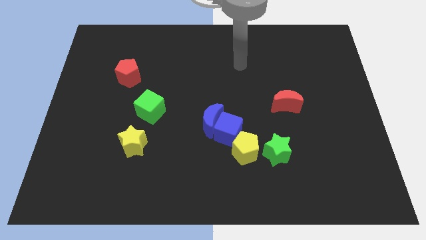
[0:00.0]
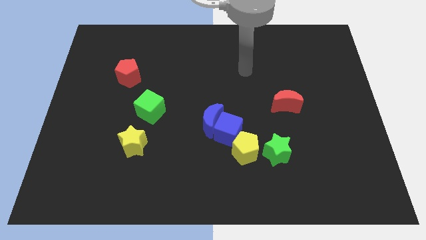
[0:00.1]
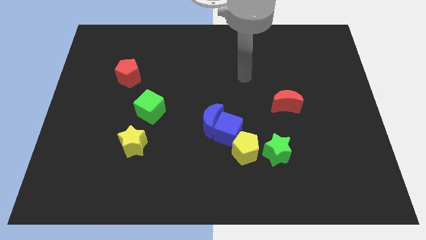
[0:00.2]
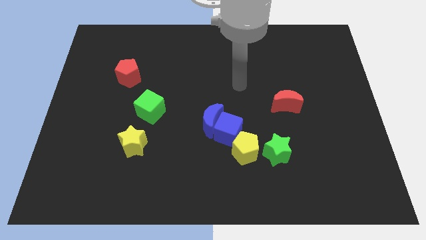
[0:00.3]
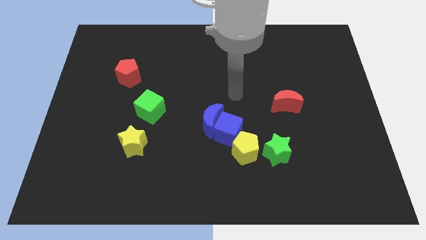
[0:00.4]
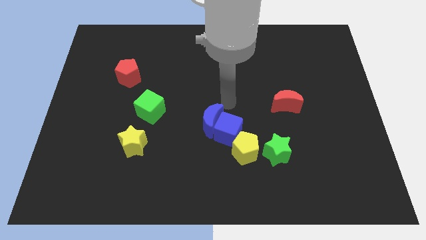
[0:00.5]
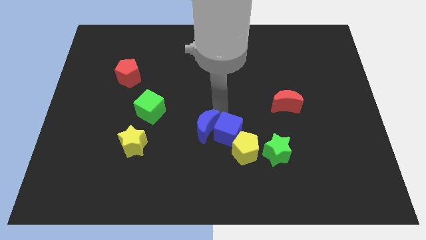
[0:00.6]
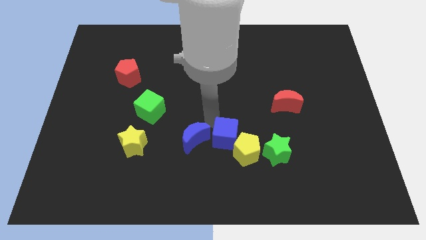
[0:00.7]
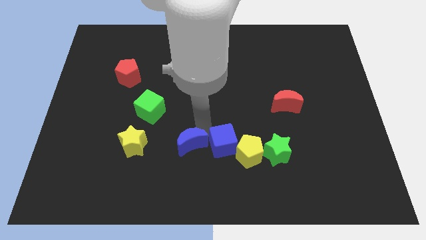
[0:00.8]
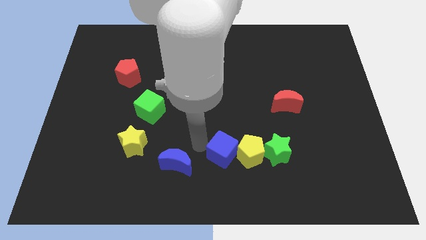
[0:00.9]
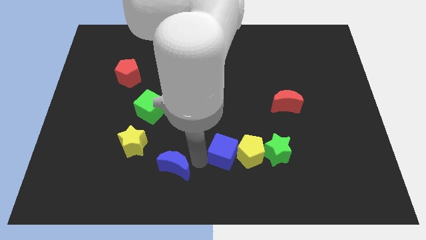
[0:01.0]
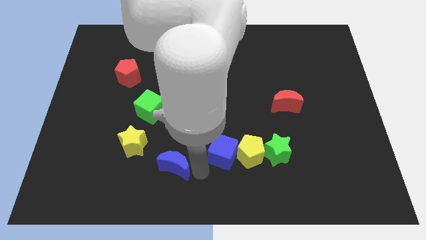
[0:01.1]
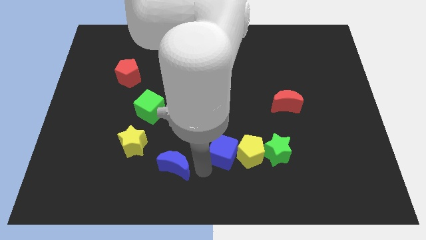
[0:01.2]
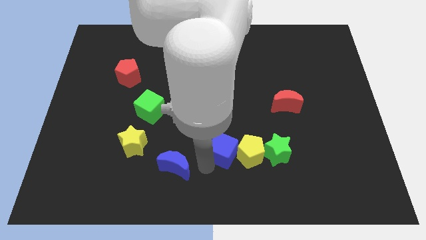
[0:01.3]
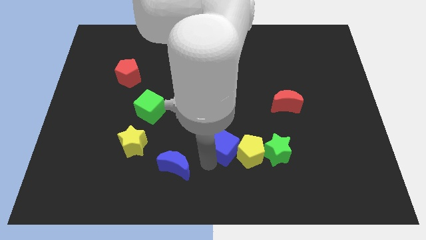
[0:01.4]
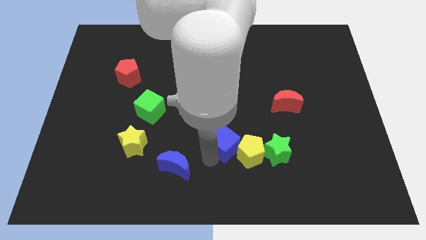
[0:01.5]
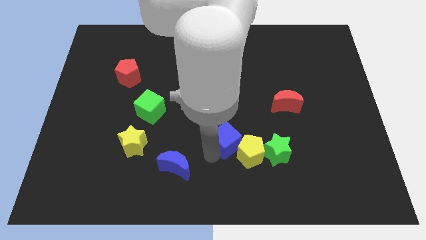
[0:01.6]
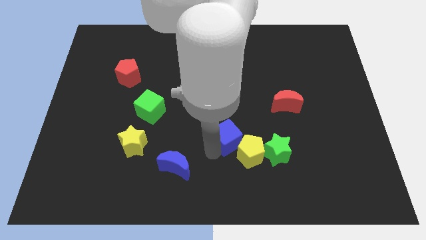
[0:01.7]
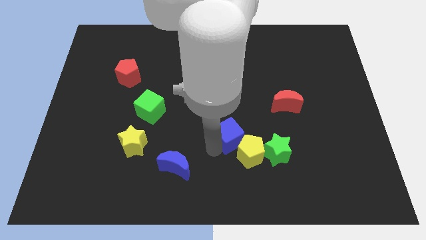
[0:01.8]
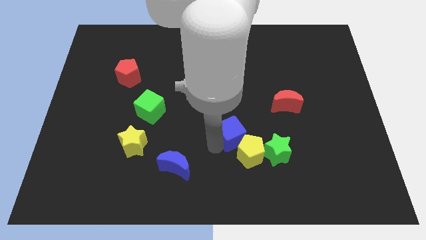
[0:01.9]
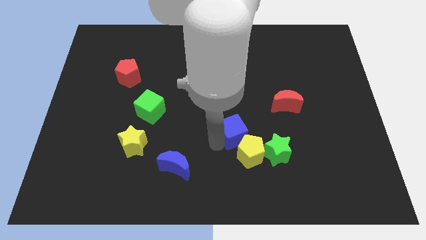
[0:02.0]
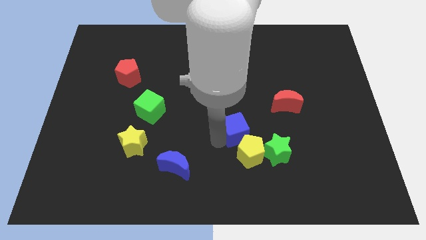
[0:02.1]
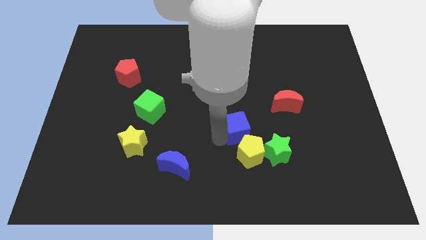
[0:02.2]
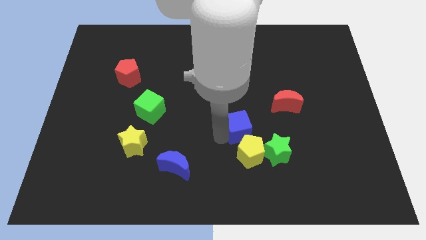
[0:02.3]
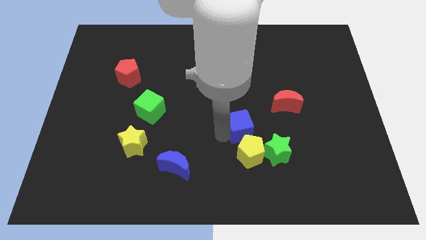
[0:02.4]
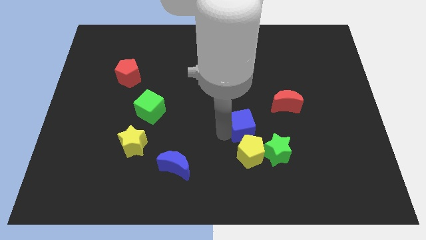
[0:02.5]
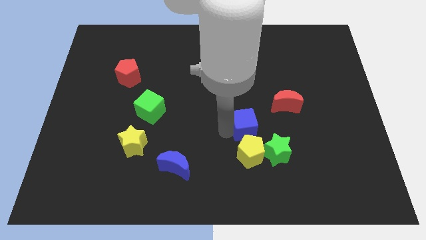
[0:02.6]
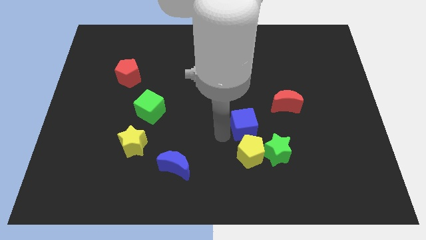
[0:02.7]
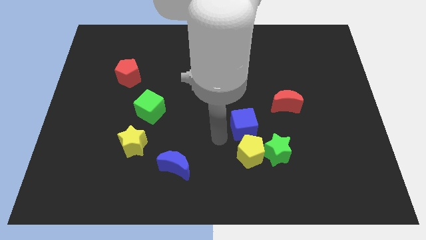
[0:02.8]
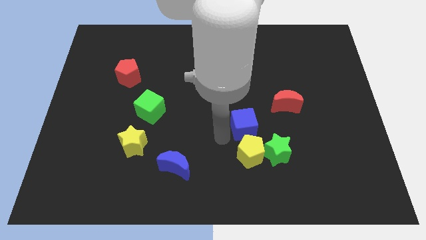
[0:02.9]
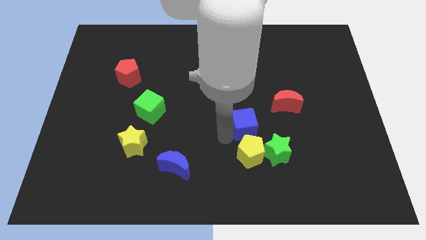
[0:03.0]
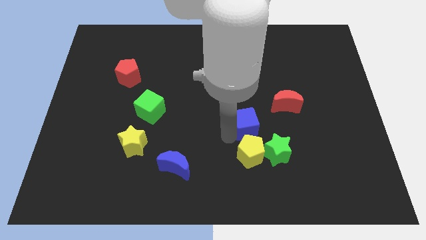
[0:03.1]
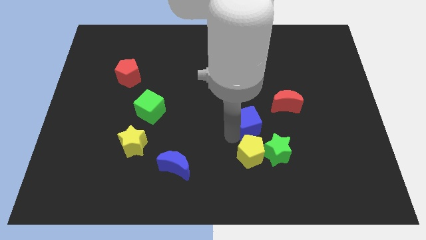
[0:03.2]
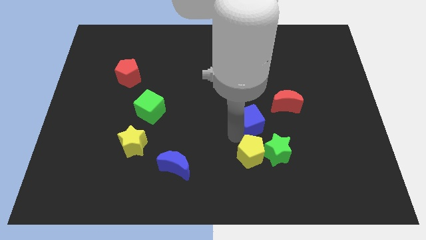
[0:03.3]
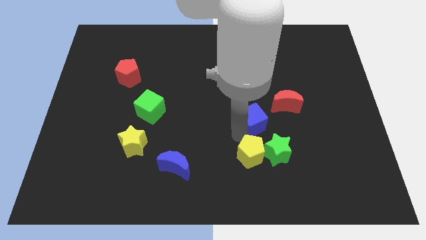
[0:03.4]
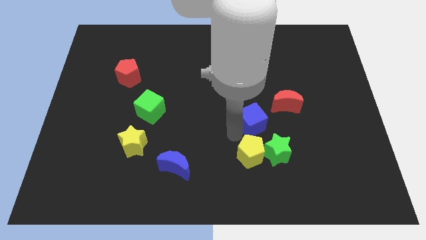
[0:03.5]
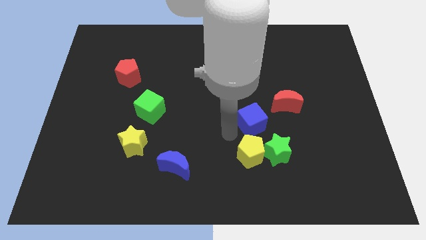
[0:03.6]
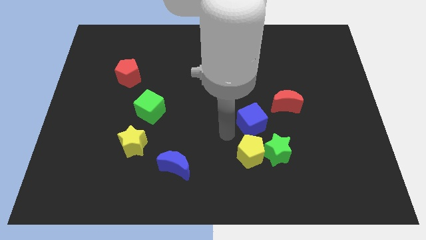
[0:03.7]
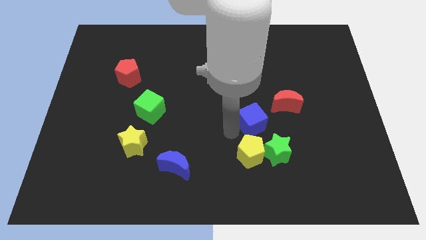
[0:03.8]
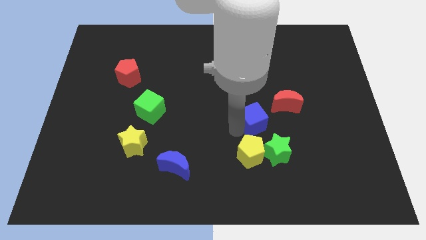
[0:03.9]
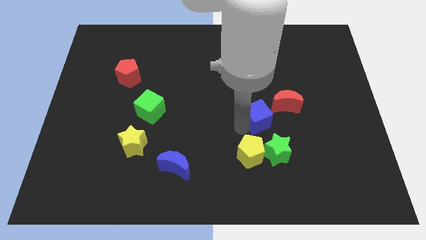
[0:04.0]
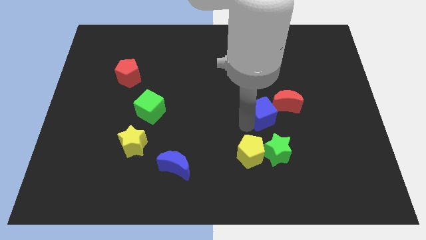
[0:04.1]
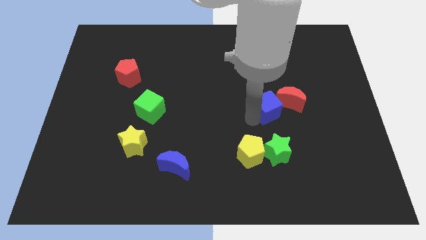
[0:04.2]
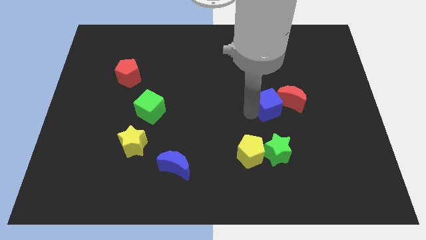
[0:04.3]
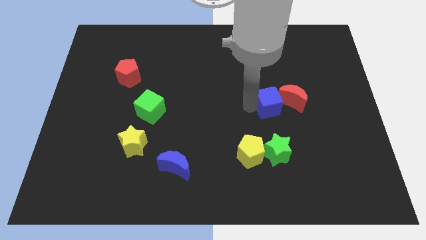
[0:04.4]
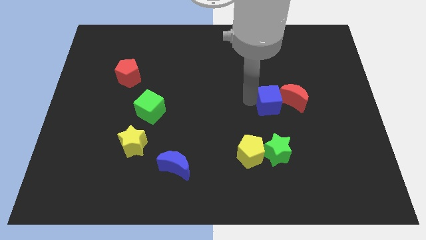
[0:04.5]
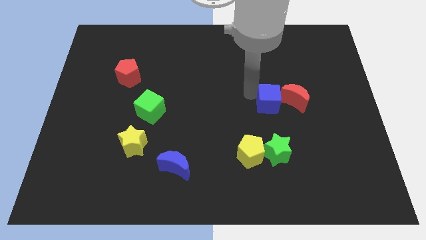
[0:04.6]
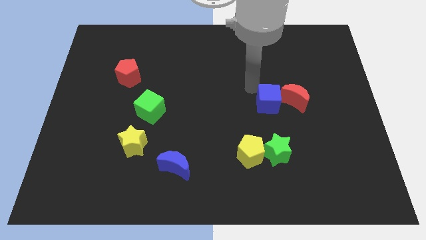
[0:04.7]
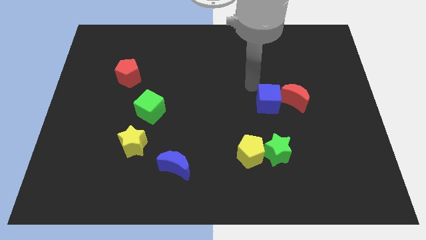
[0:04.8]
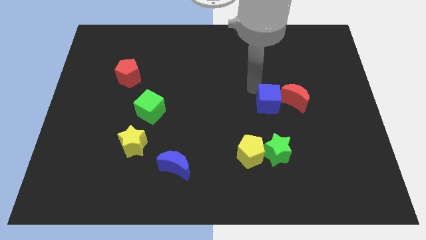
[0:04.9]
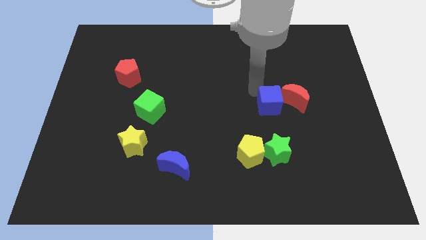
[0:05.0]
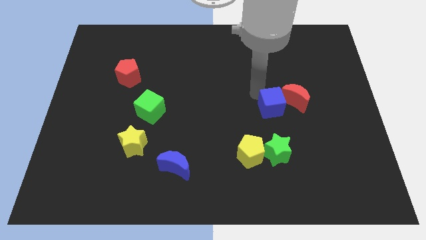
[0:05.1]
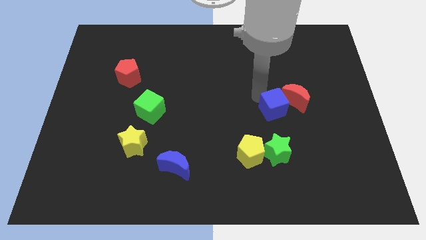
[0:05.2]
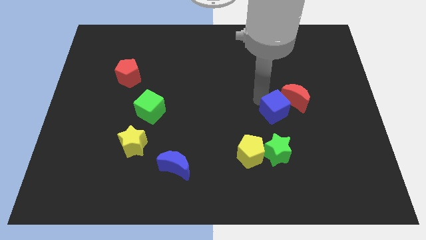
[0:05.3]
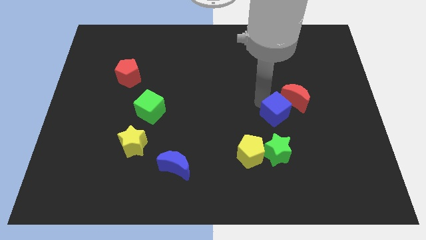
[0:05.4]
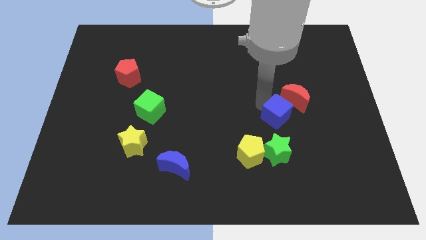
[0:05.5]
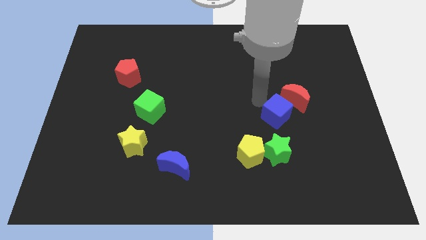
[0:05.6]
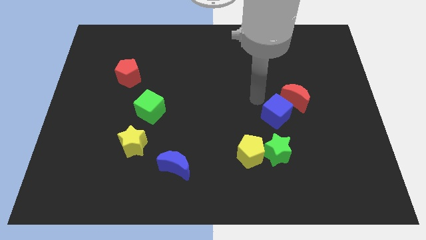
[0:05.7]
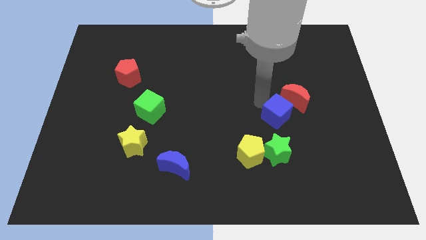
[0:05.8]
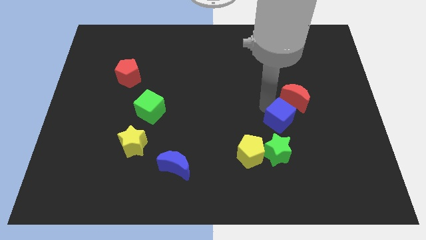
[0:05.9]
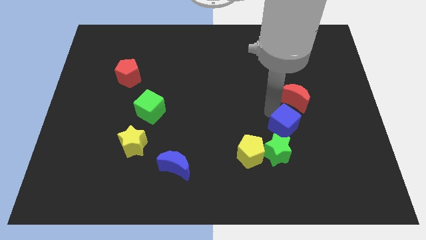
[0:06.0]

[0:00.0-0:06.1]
slide the blue cube to the top right side of the green star

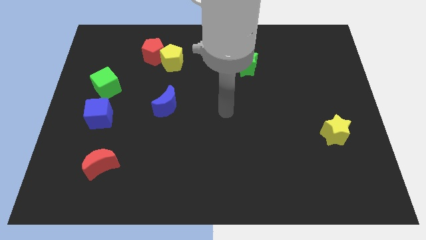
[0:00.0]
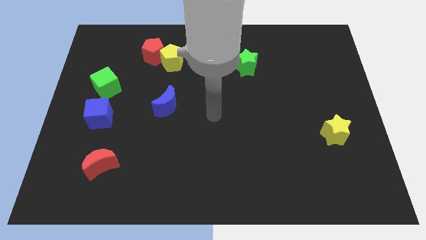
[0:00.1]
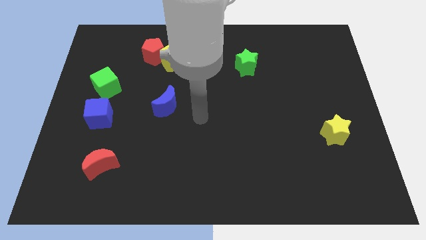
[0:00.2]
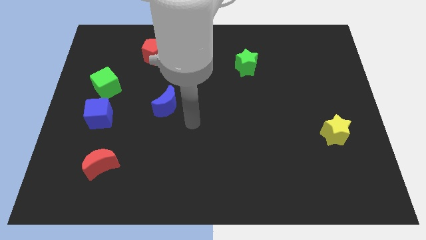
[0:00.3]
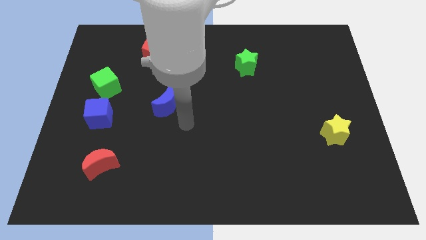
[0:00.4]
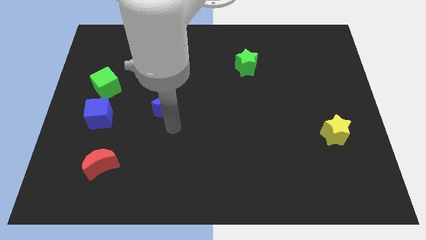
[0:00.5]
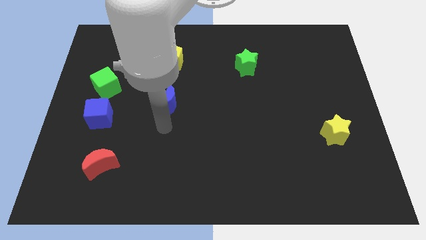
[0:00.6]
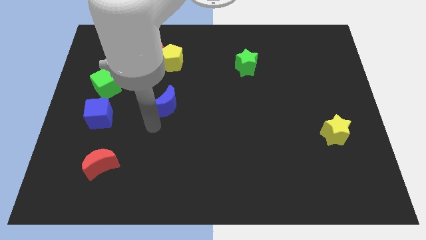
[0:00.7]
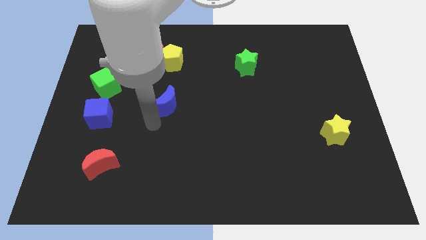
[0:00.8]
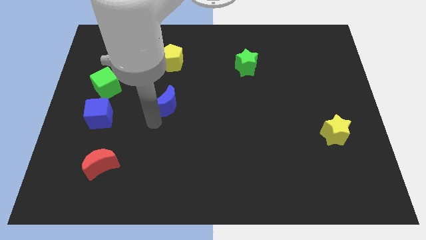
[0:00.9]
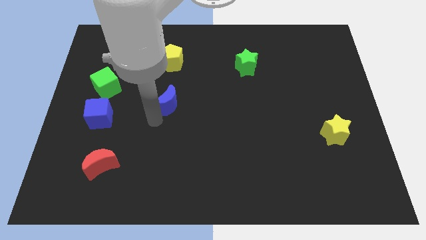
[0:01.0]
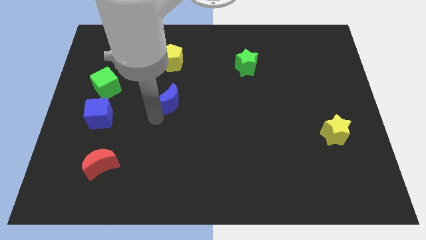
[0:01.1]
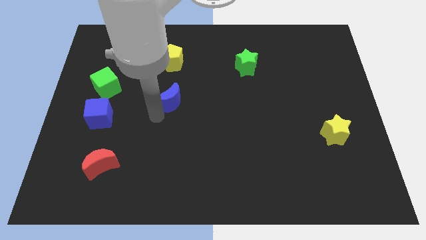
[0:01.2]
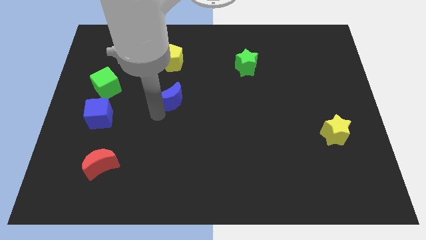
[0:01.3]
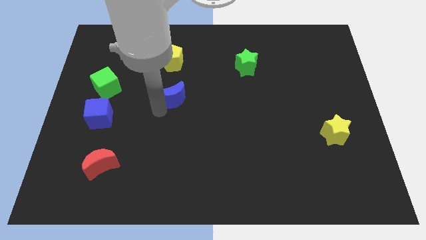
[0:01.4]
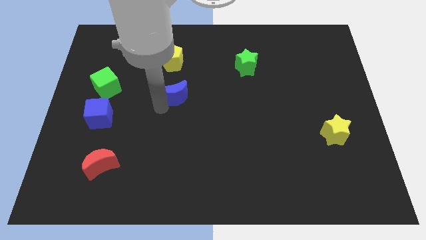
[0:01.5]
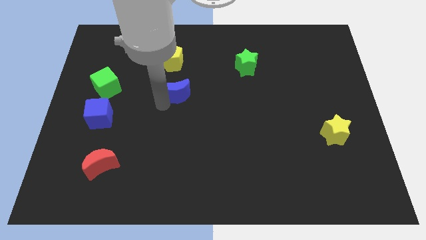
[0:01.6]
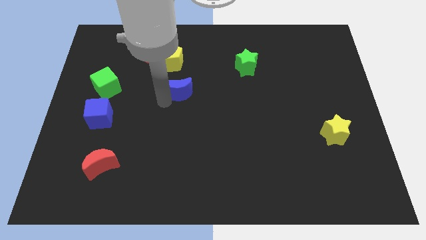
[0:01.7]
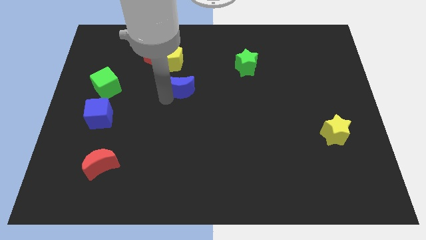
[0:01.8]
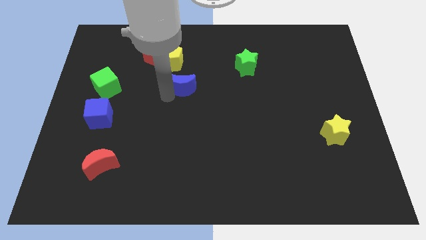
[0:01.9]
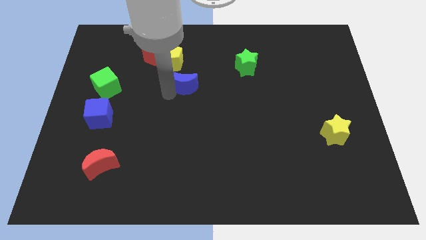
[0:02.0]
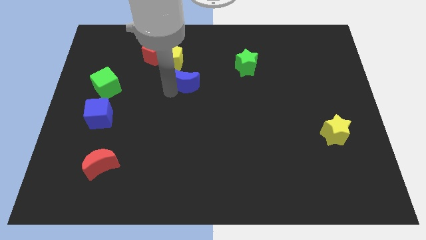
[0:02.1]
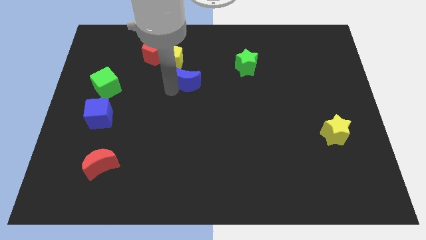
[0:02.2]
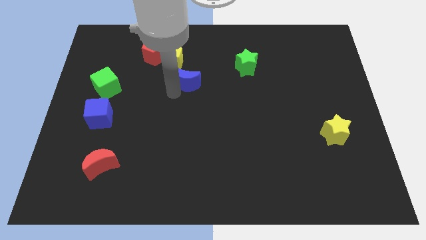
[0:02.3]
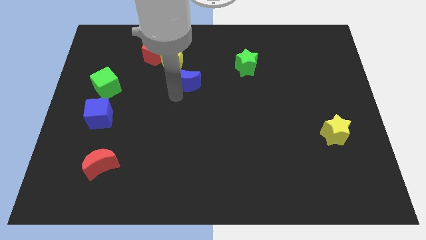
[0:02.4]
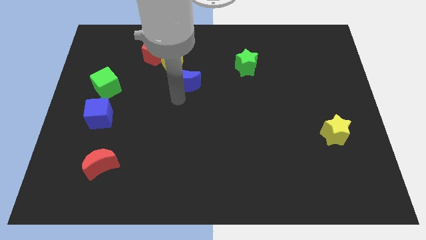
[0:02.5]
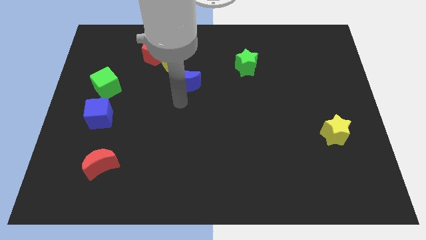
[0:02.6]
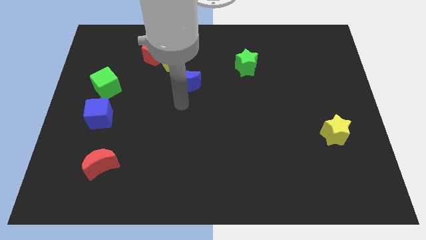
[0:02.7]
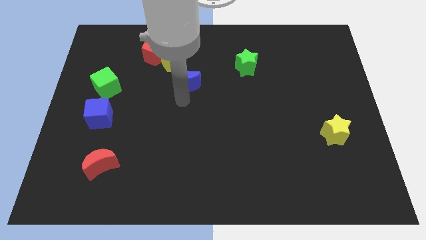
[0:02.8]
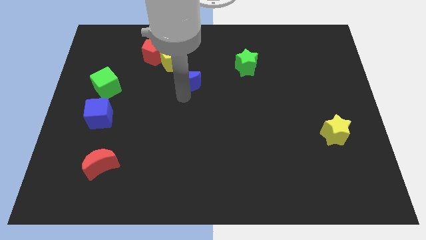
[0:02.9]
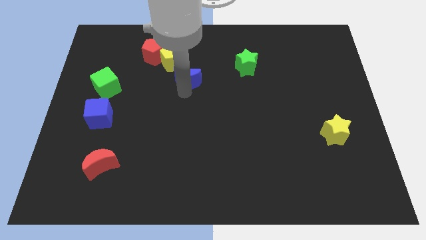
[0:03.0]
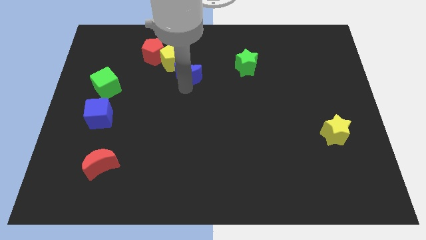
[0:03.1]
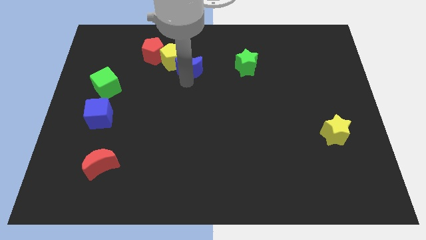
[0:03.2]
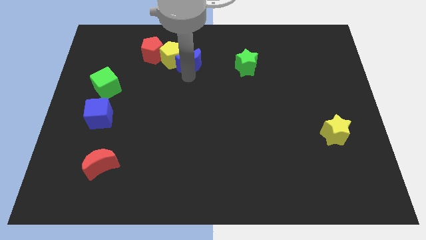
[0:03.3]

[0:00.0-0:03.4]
push the blue moon right of the red pentagon
